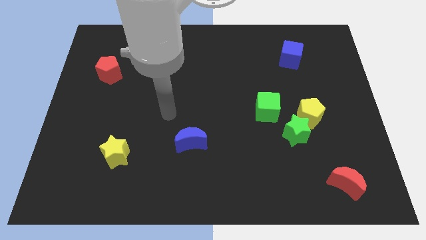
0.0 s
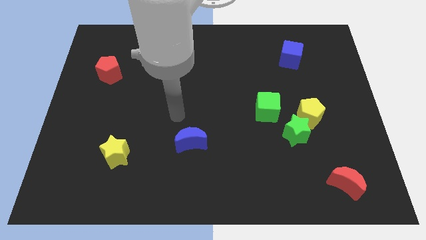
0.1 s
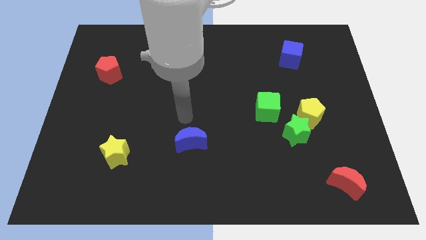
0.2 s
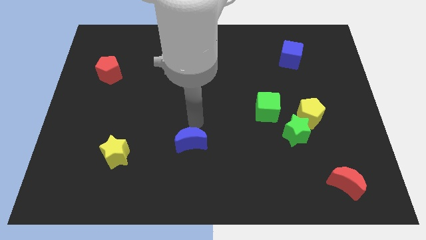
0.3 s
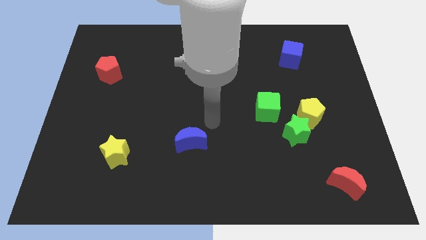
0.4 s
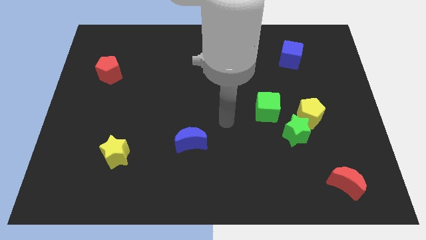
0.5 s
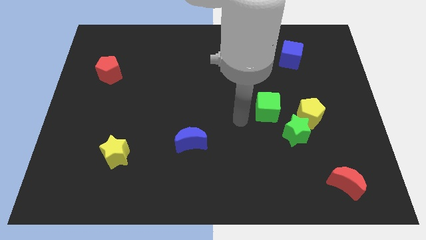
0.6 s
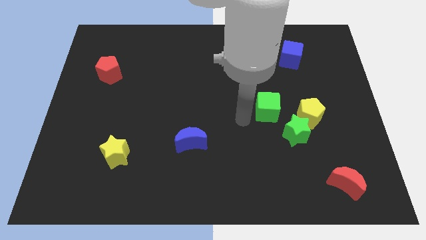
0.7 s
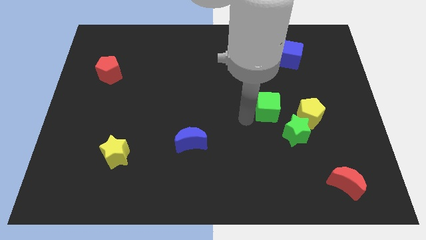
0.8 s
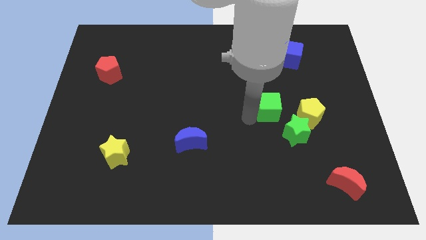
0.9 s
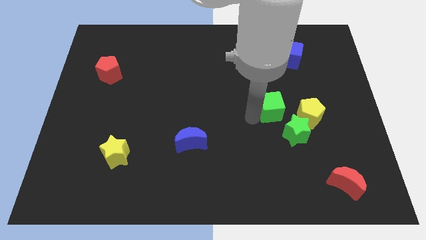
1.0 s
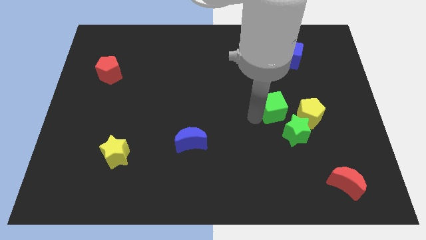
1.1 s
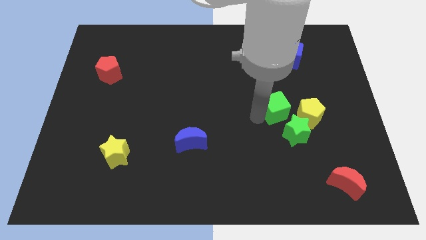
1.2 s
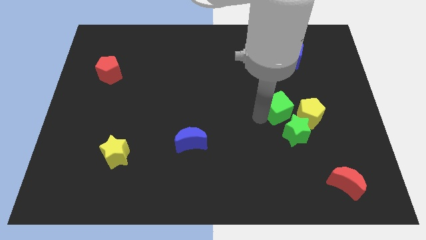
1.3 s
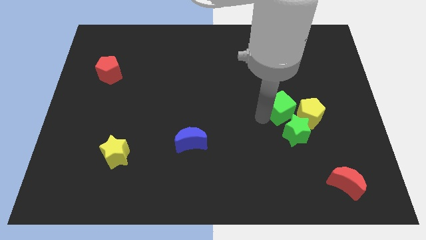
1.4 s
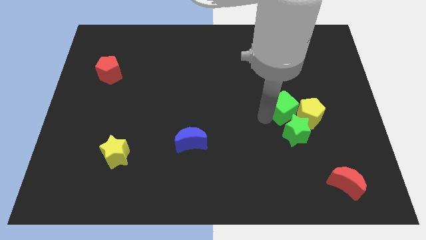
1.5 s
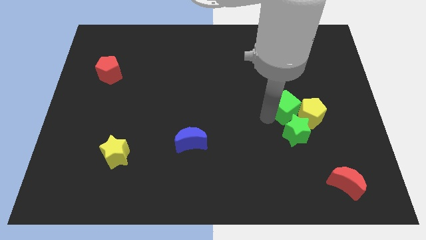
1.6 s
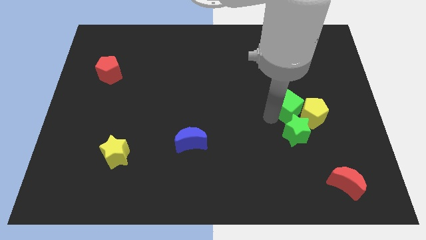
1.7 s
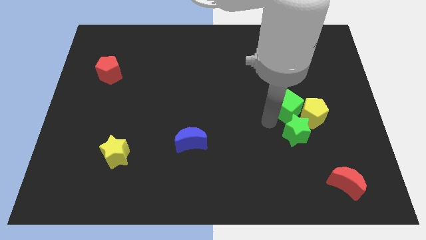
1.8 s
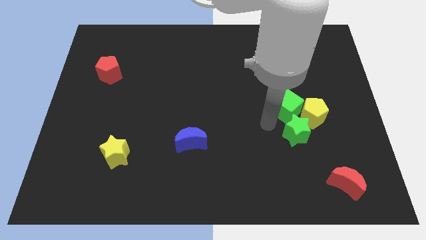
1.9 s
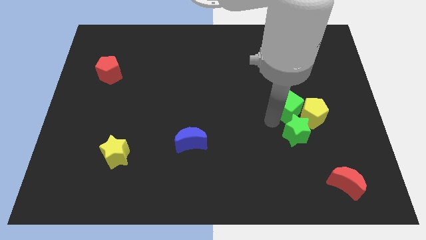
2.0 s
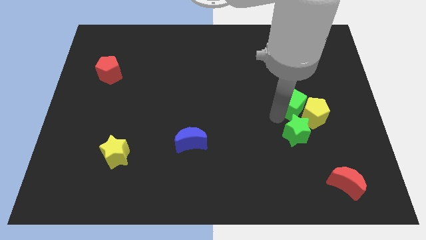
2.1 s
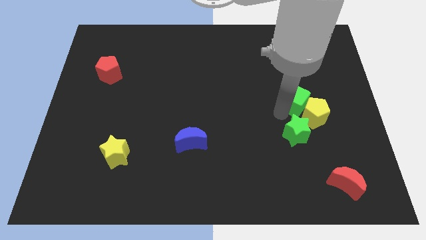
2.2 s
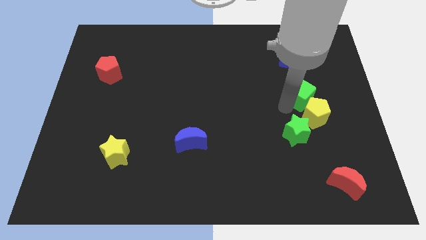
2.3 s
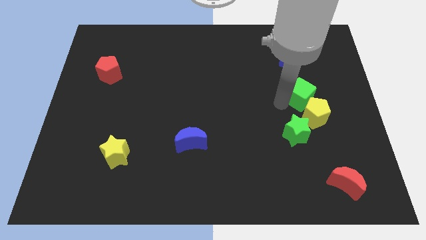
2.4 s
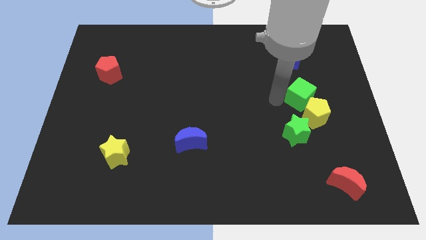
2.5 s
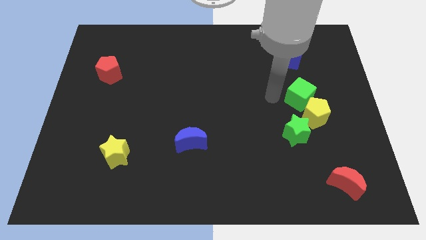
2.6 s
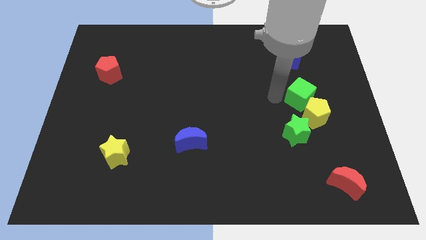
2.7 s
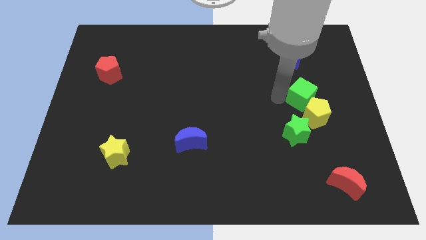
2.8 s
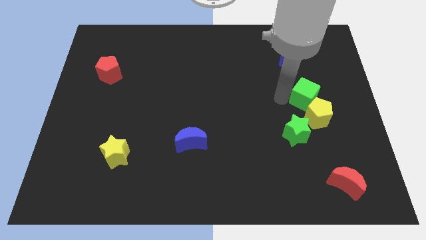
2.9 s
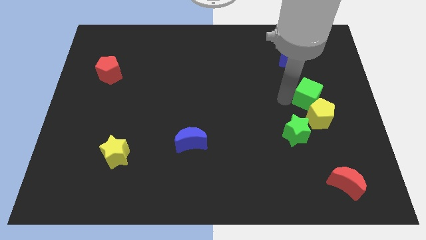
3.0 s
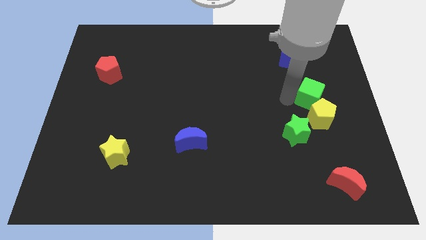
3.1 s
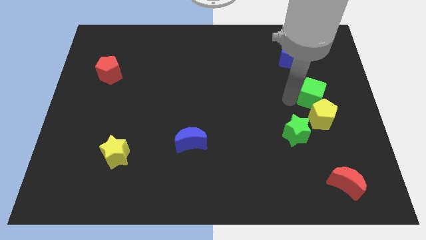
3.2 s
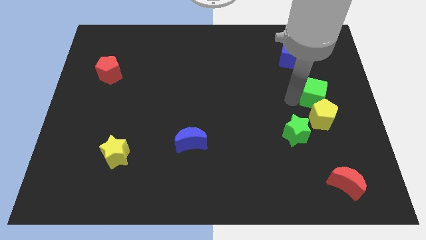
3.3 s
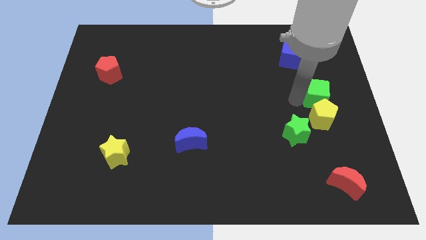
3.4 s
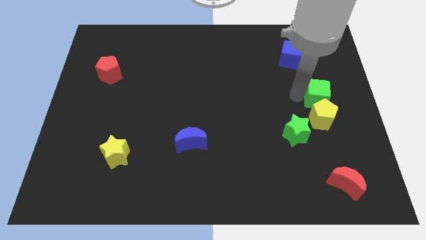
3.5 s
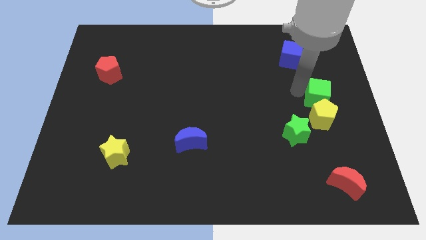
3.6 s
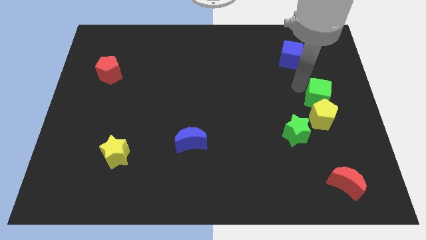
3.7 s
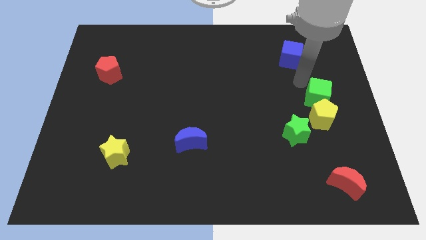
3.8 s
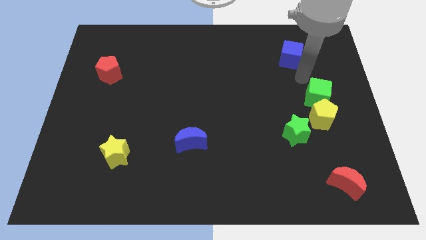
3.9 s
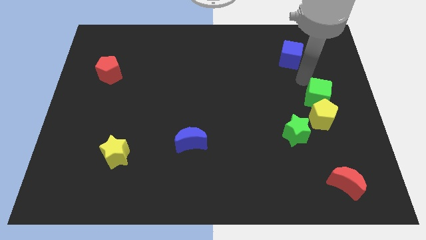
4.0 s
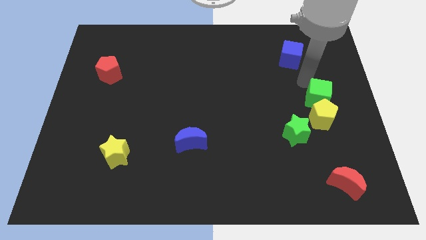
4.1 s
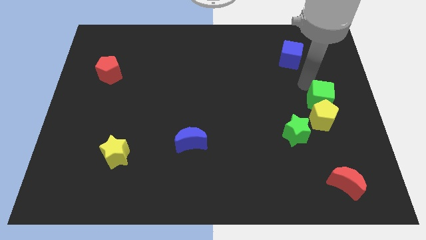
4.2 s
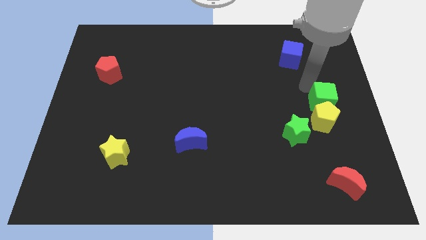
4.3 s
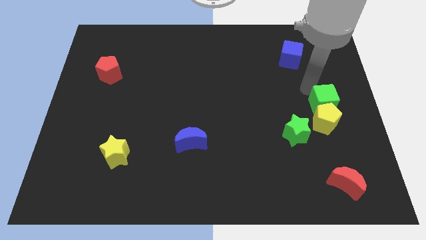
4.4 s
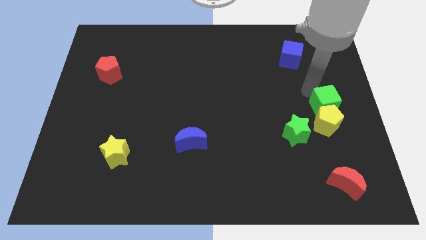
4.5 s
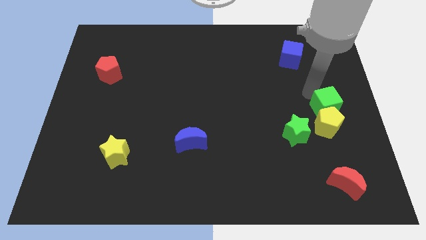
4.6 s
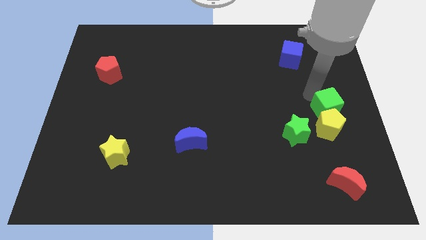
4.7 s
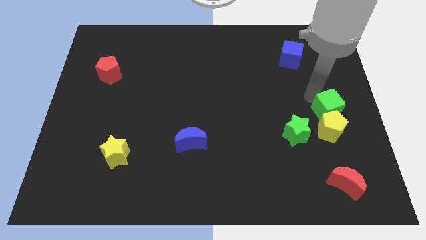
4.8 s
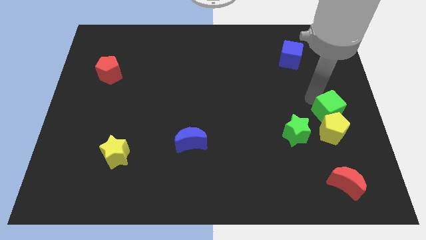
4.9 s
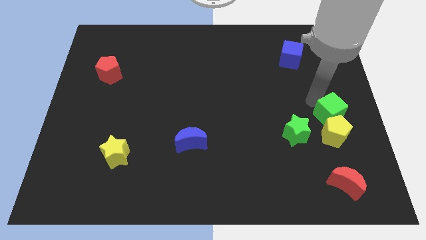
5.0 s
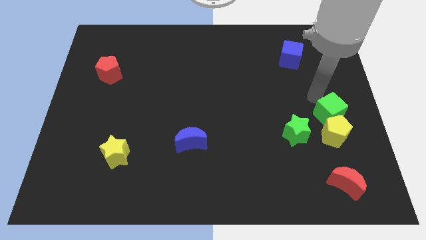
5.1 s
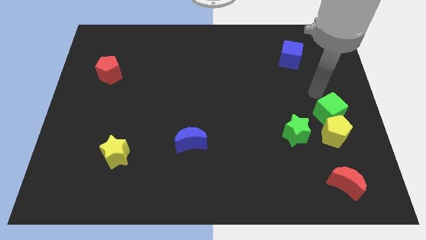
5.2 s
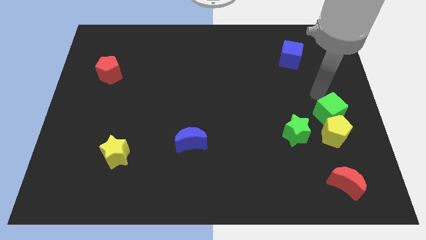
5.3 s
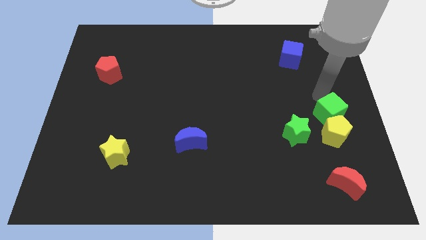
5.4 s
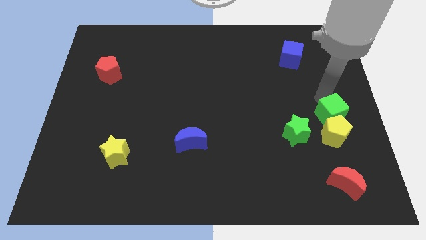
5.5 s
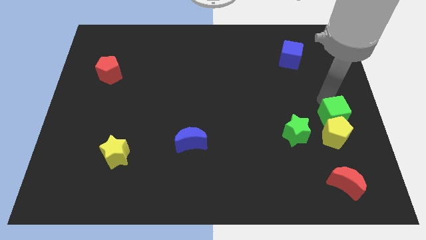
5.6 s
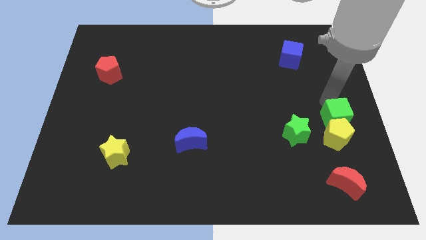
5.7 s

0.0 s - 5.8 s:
push the green cube to the right of the green star

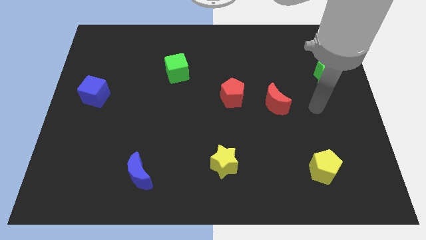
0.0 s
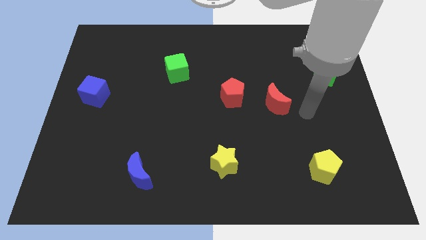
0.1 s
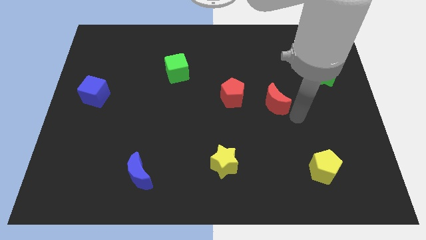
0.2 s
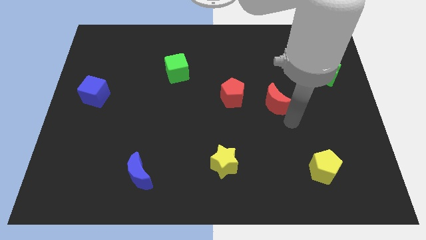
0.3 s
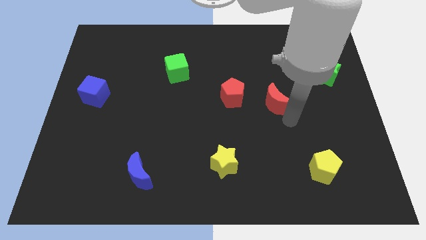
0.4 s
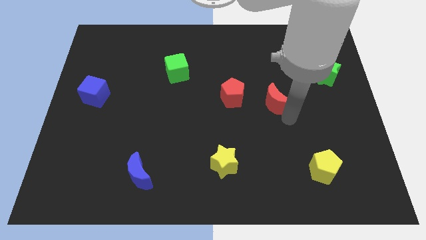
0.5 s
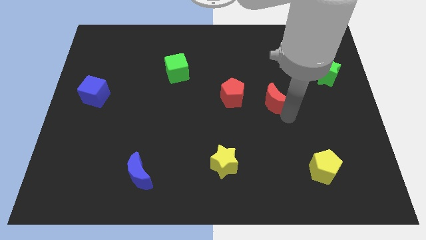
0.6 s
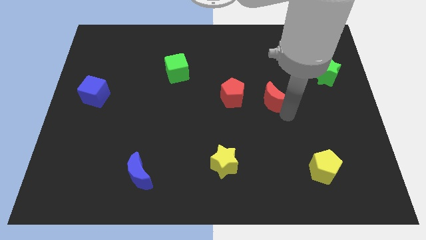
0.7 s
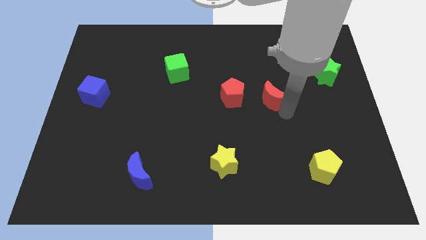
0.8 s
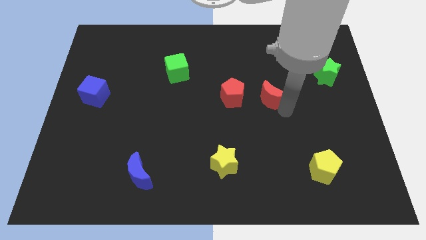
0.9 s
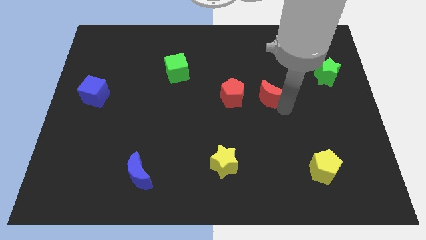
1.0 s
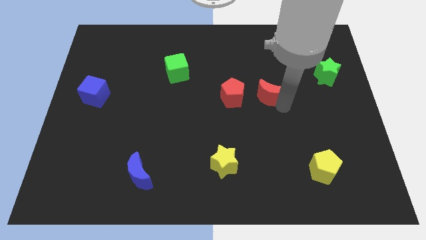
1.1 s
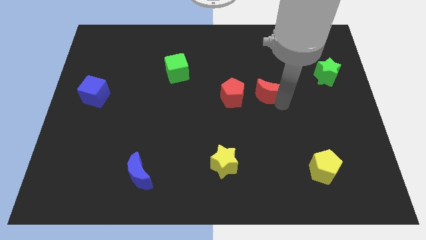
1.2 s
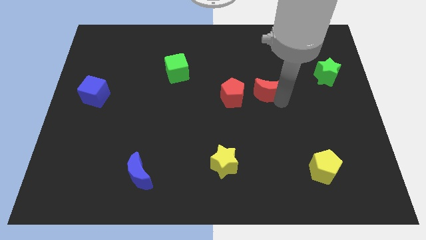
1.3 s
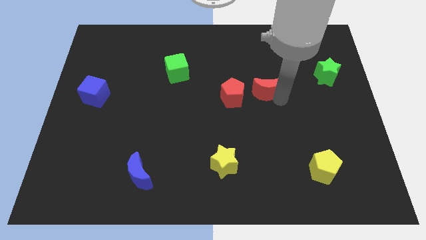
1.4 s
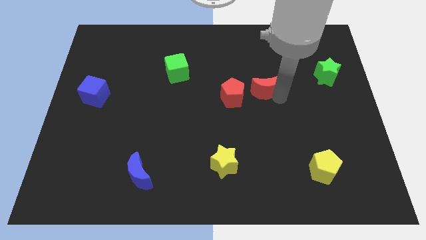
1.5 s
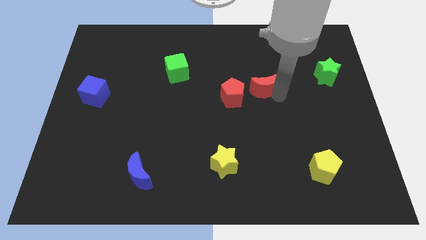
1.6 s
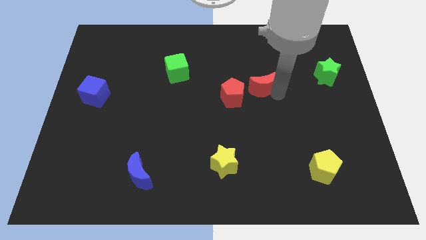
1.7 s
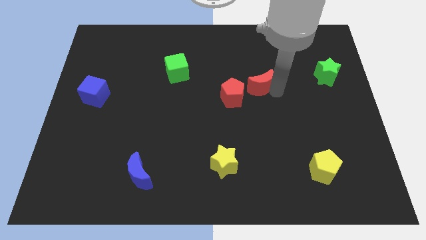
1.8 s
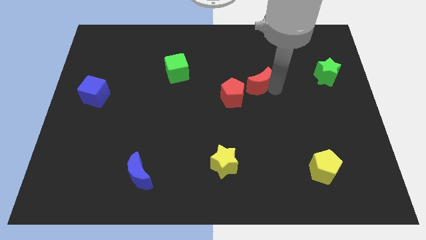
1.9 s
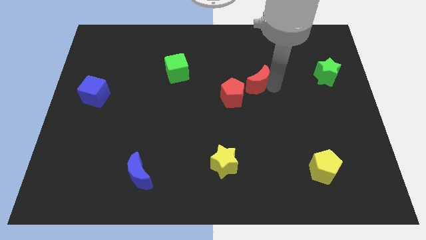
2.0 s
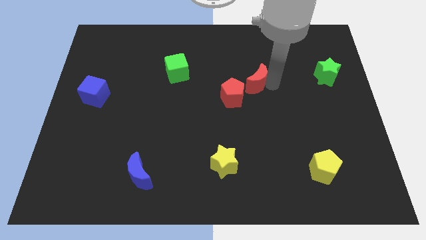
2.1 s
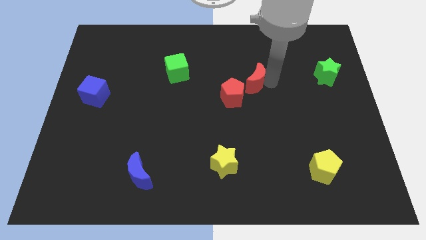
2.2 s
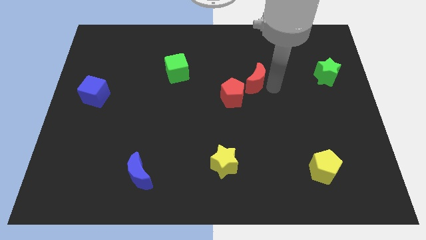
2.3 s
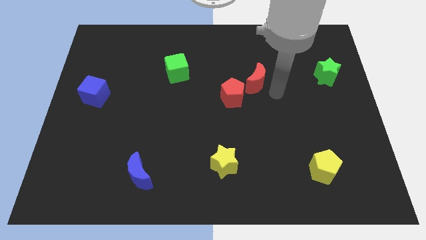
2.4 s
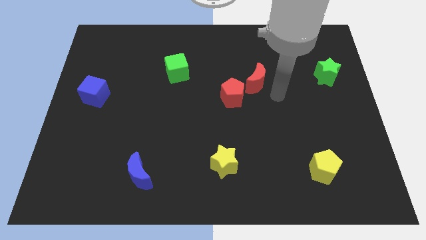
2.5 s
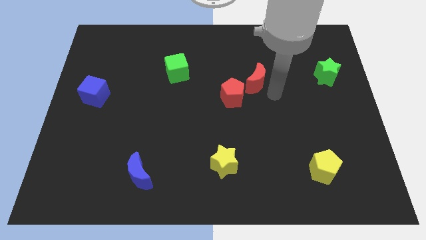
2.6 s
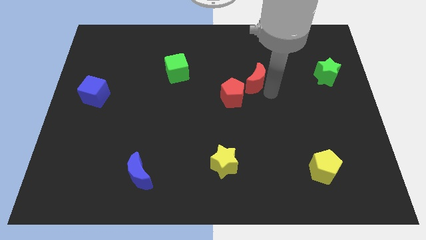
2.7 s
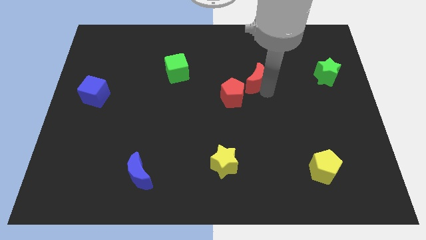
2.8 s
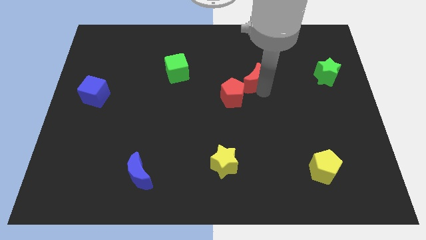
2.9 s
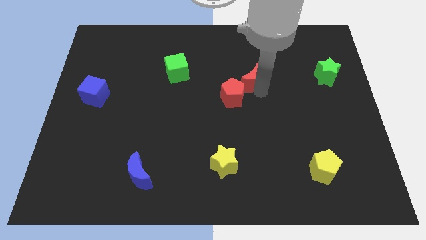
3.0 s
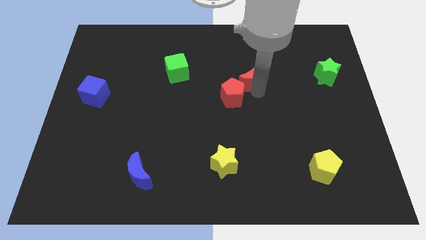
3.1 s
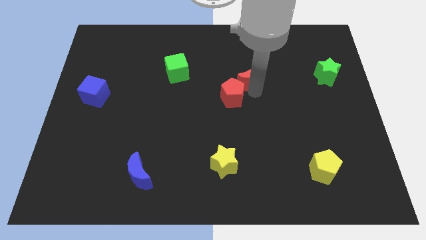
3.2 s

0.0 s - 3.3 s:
slide the red moon above the red pentagon
